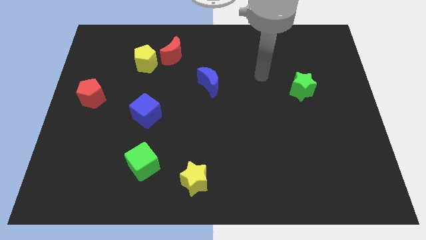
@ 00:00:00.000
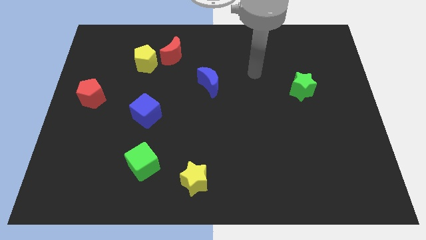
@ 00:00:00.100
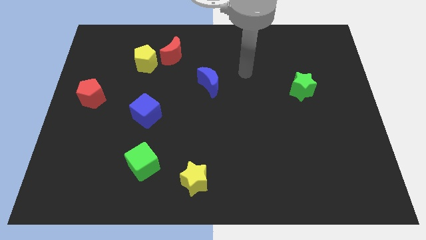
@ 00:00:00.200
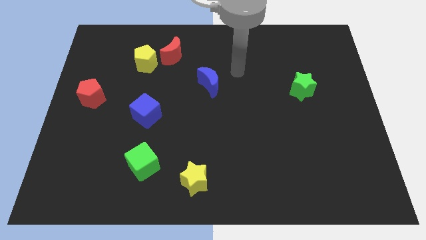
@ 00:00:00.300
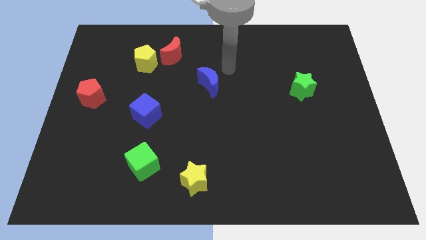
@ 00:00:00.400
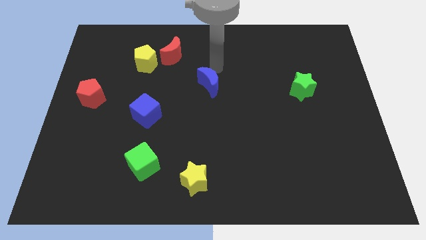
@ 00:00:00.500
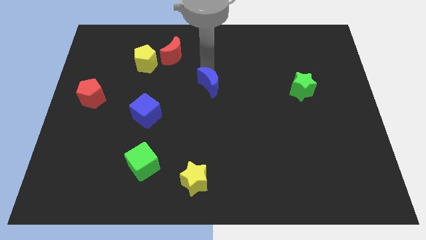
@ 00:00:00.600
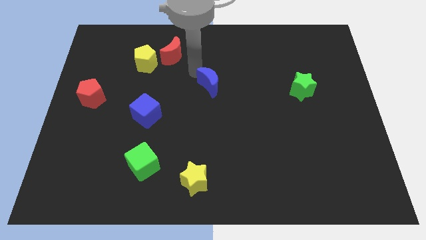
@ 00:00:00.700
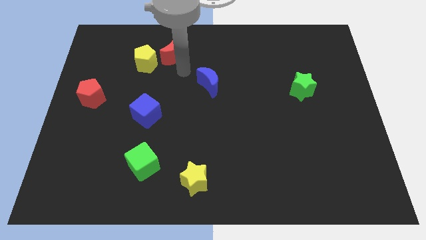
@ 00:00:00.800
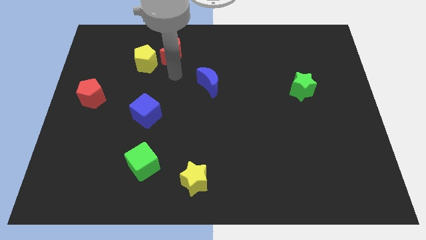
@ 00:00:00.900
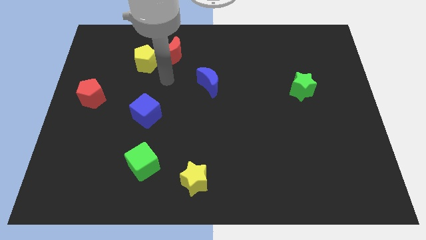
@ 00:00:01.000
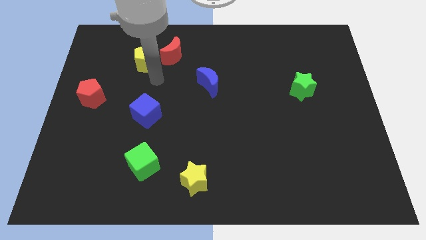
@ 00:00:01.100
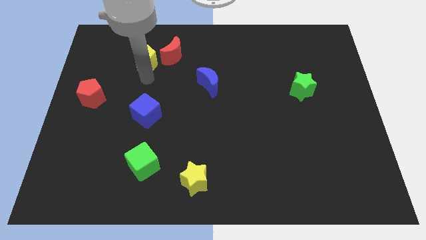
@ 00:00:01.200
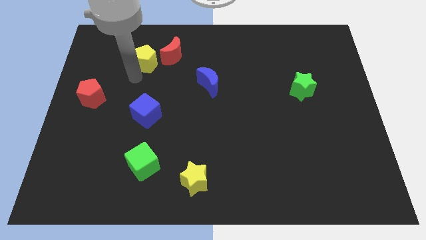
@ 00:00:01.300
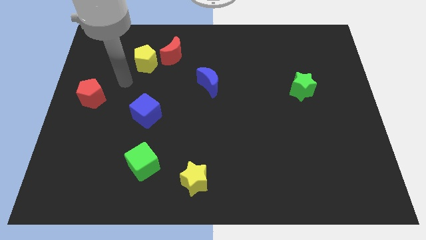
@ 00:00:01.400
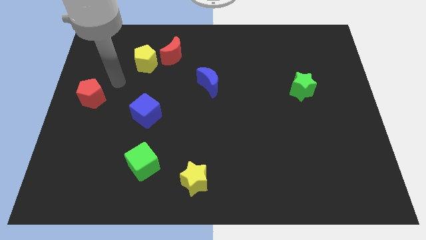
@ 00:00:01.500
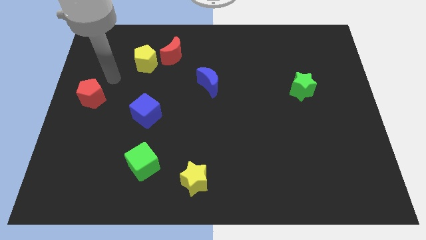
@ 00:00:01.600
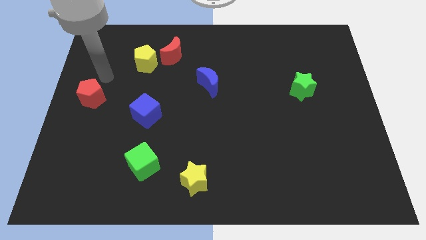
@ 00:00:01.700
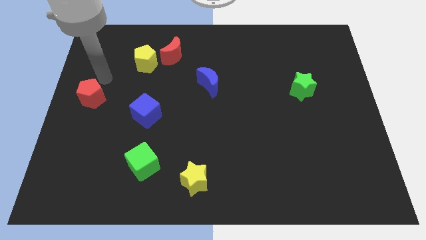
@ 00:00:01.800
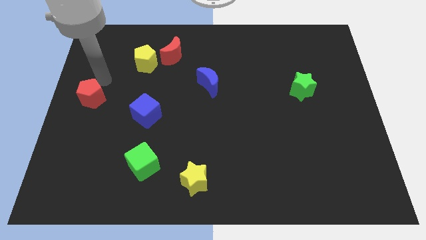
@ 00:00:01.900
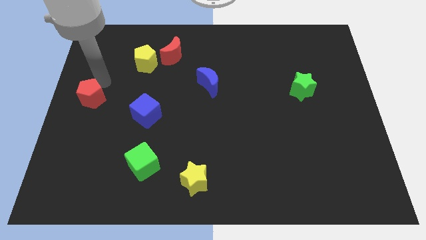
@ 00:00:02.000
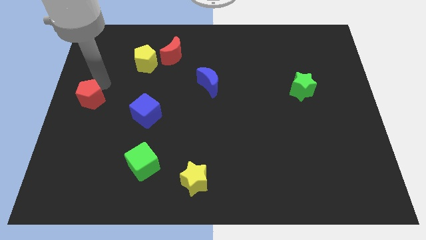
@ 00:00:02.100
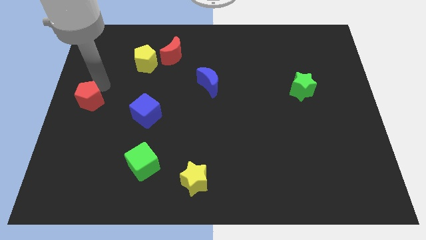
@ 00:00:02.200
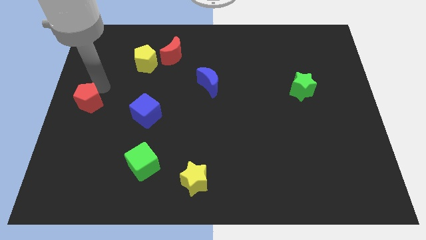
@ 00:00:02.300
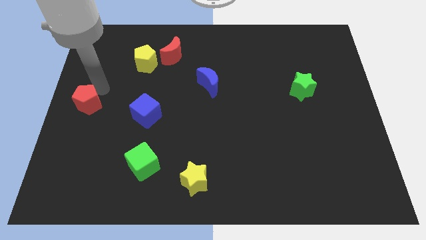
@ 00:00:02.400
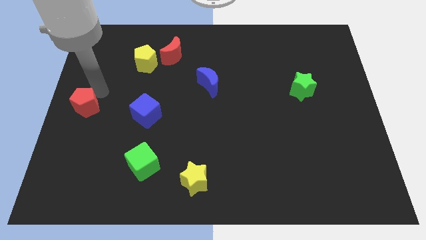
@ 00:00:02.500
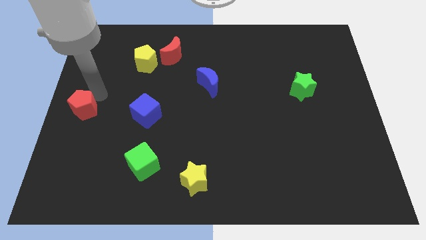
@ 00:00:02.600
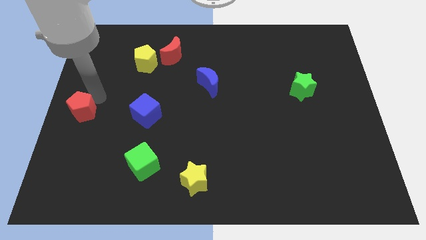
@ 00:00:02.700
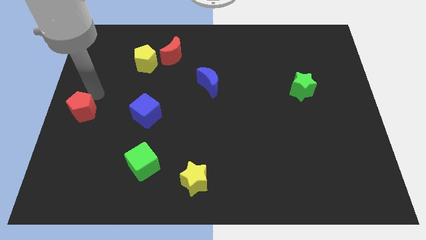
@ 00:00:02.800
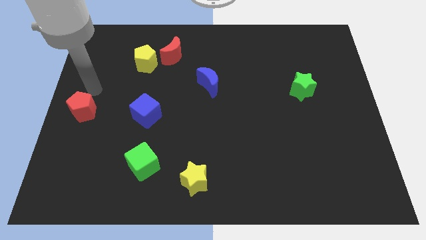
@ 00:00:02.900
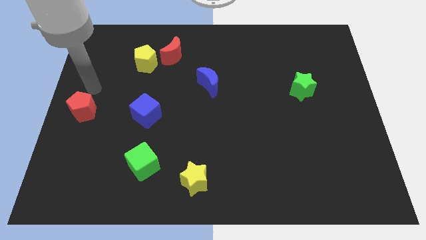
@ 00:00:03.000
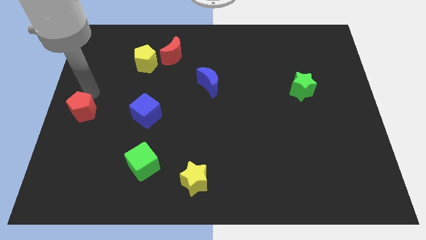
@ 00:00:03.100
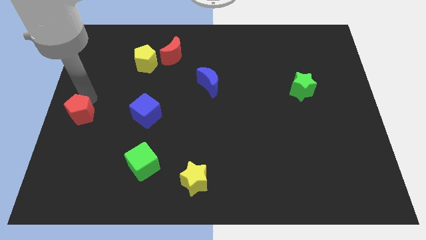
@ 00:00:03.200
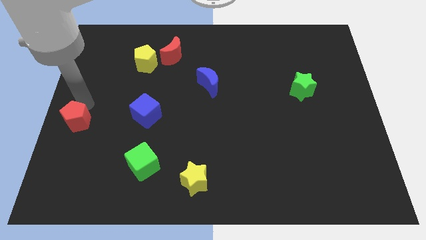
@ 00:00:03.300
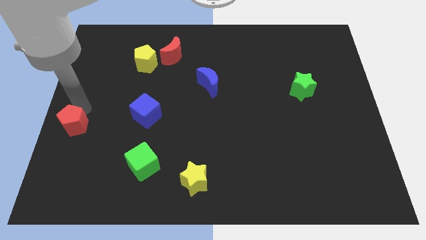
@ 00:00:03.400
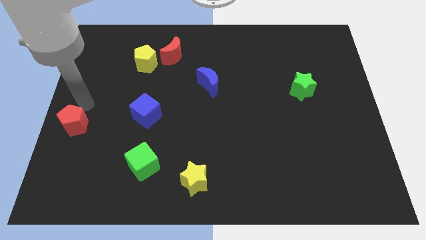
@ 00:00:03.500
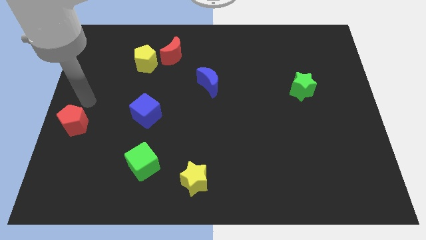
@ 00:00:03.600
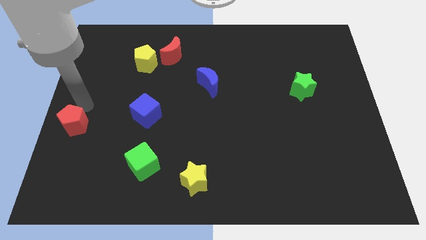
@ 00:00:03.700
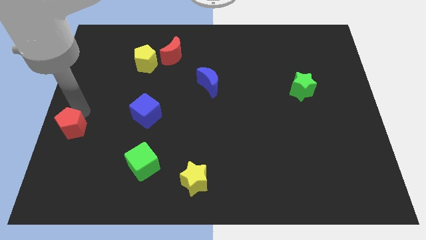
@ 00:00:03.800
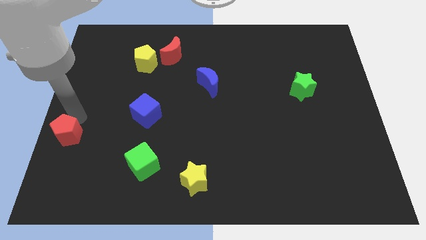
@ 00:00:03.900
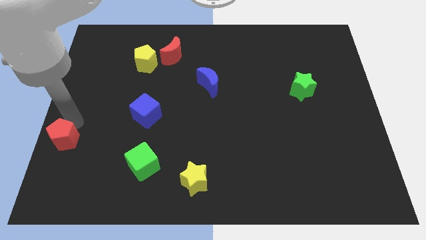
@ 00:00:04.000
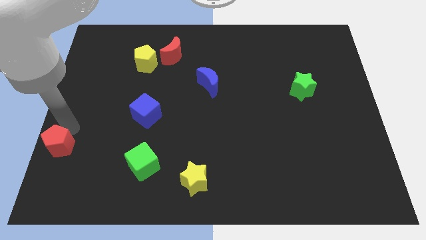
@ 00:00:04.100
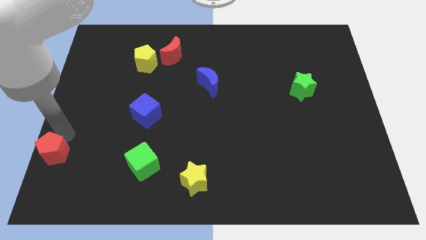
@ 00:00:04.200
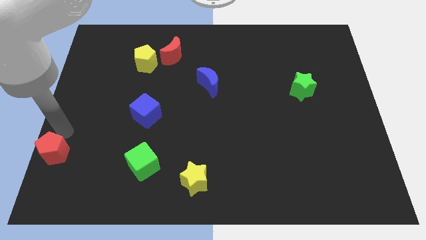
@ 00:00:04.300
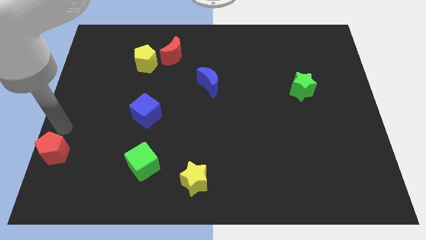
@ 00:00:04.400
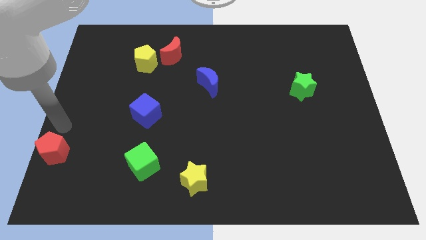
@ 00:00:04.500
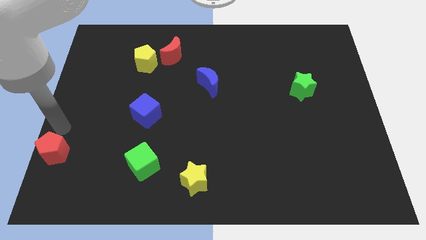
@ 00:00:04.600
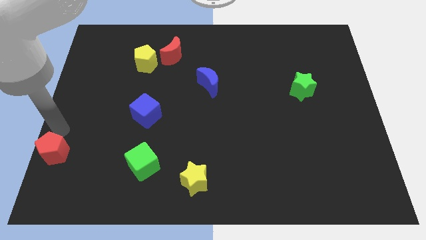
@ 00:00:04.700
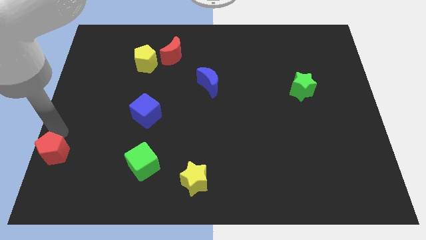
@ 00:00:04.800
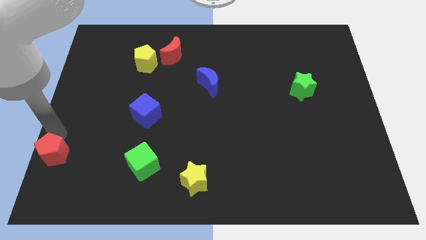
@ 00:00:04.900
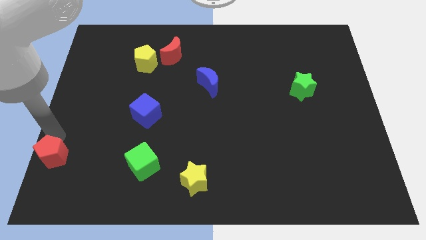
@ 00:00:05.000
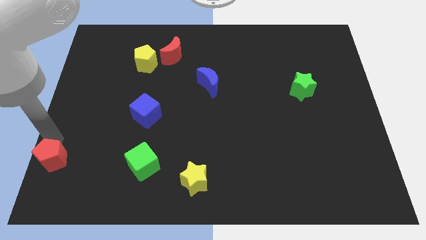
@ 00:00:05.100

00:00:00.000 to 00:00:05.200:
slide the red pentagon to the lower left corner

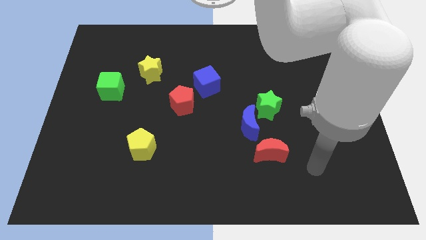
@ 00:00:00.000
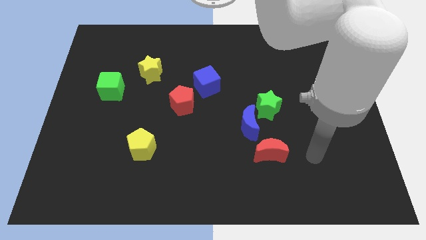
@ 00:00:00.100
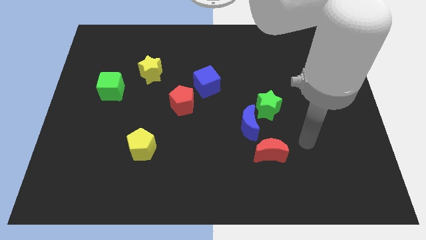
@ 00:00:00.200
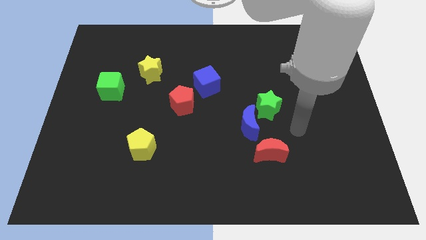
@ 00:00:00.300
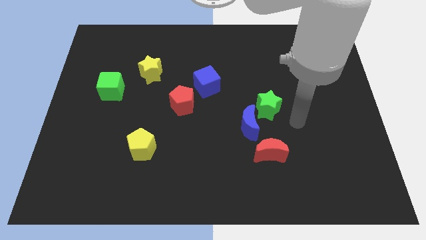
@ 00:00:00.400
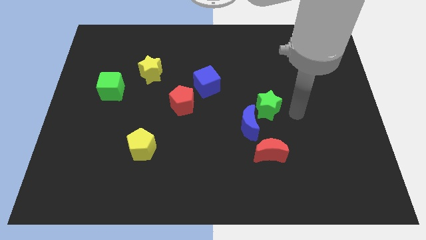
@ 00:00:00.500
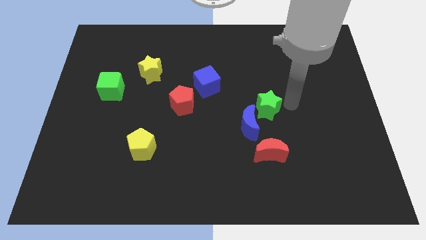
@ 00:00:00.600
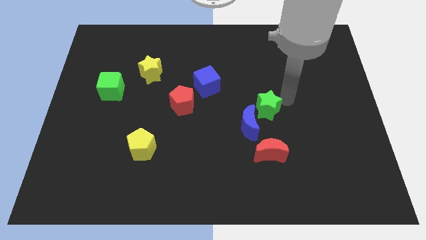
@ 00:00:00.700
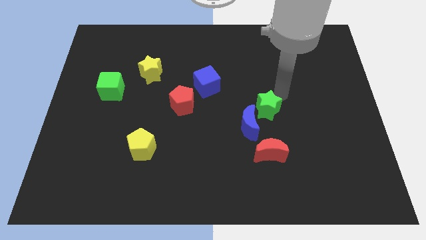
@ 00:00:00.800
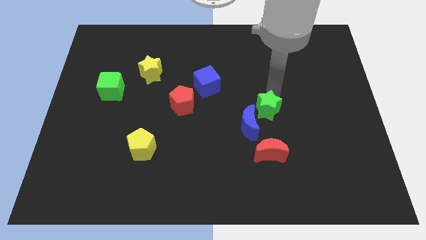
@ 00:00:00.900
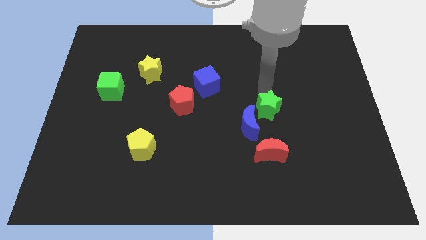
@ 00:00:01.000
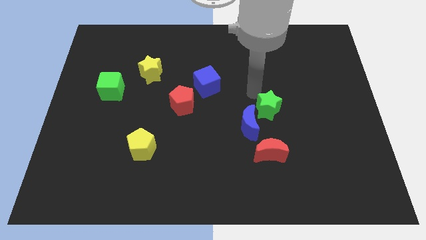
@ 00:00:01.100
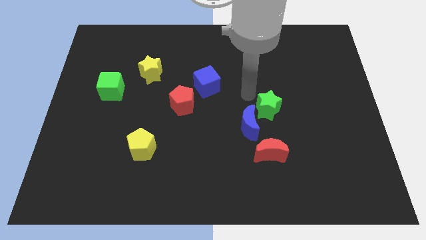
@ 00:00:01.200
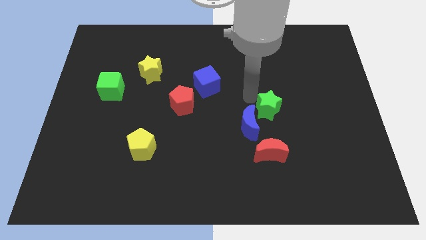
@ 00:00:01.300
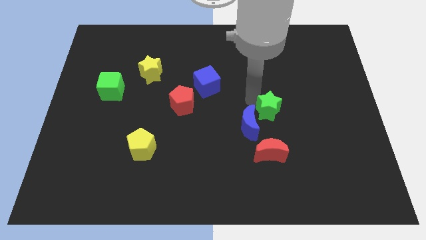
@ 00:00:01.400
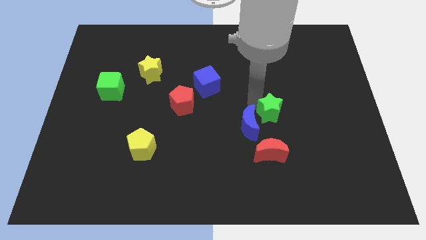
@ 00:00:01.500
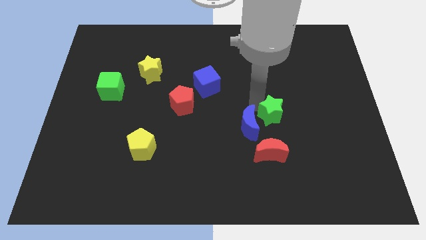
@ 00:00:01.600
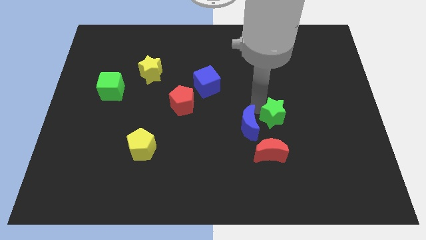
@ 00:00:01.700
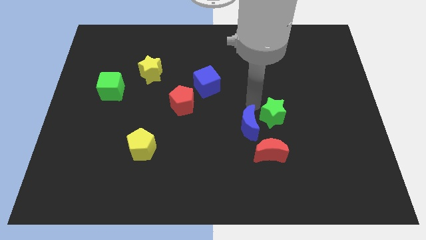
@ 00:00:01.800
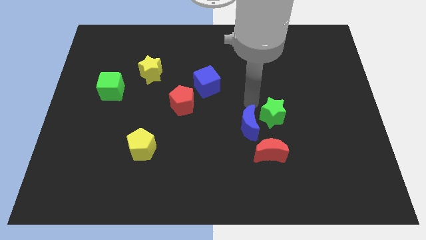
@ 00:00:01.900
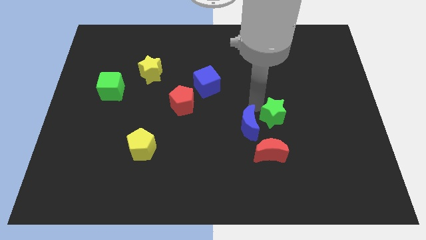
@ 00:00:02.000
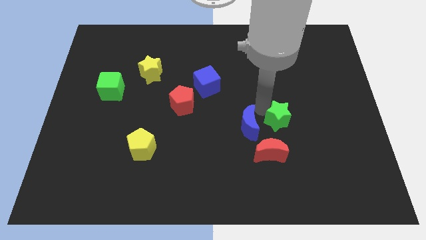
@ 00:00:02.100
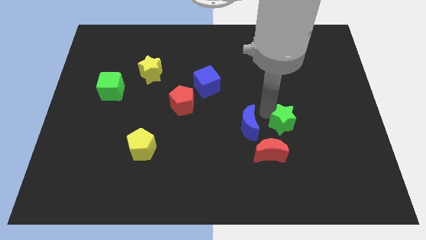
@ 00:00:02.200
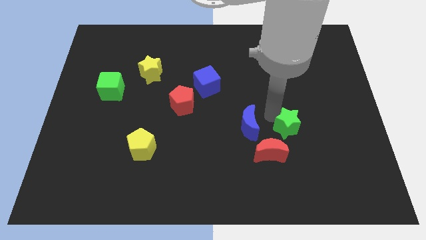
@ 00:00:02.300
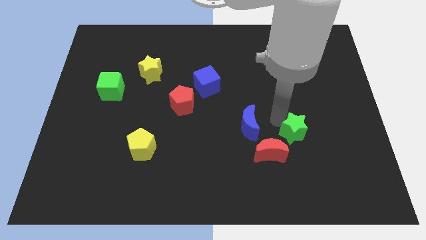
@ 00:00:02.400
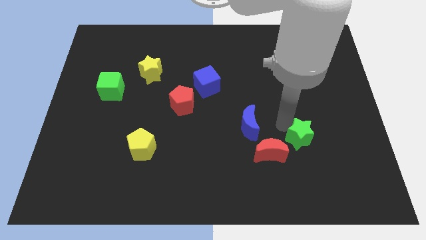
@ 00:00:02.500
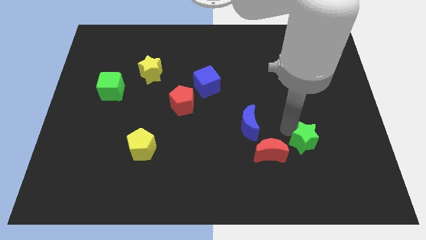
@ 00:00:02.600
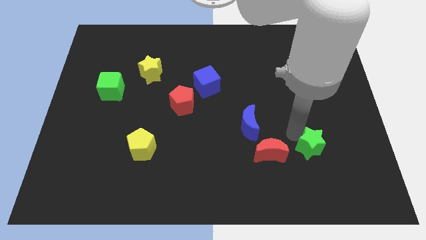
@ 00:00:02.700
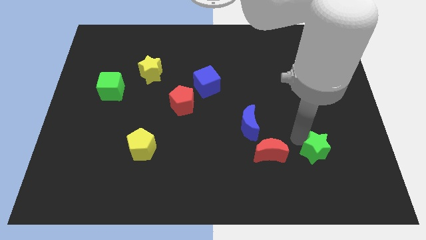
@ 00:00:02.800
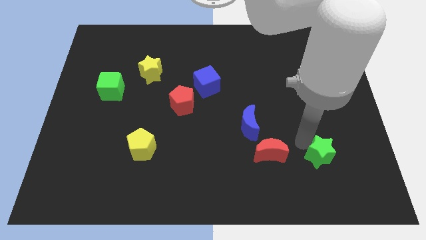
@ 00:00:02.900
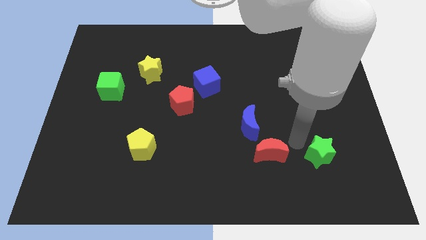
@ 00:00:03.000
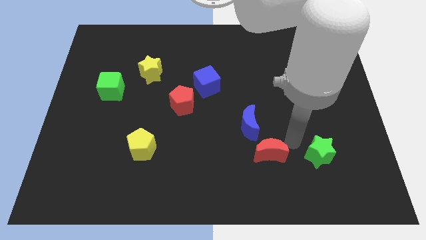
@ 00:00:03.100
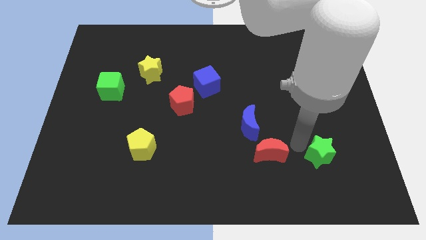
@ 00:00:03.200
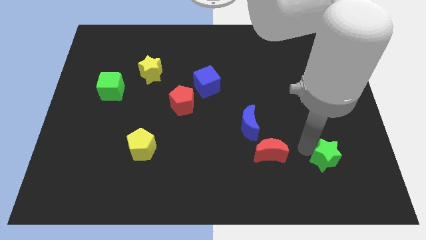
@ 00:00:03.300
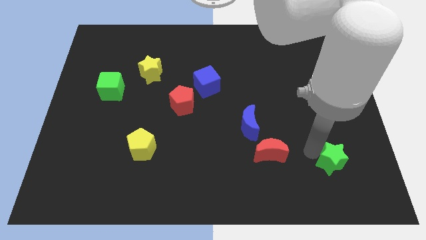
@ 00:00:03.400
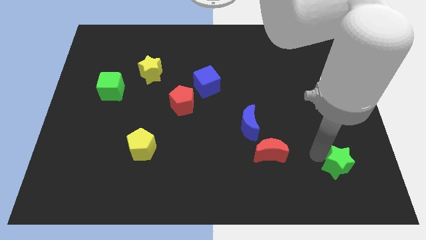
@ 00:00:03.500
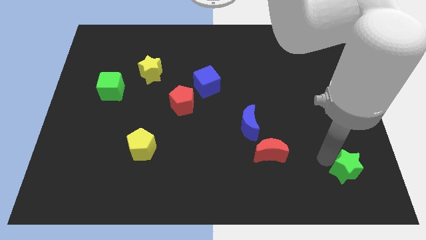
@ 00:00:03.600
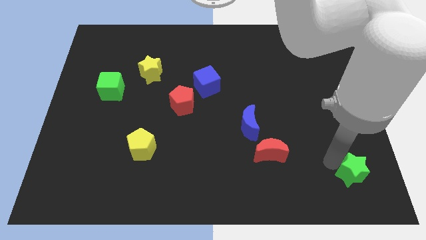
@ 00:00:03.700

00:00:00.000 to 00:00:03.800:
put the green star to the lower right corner
